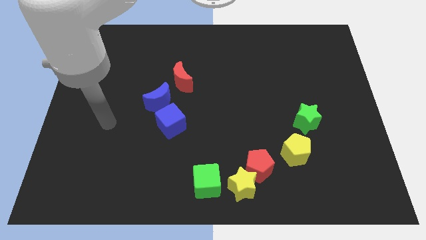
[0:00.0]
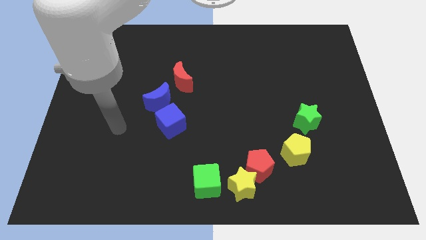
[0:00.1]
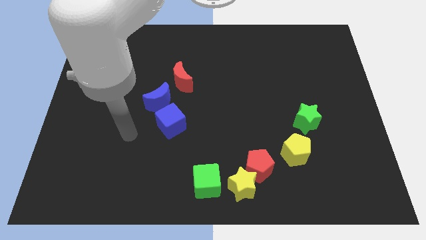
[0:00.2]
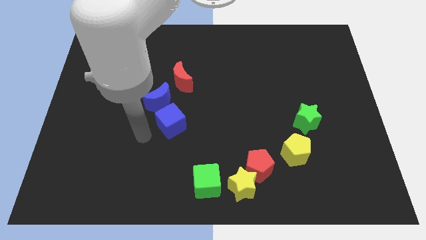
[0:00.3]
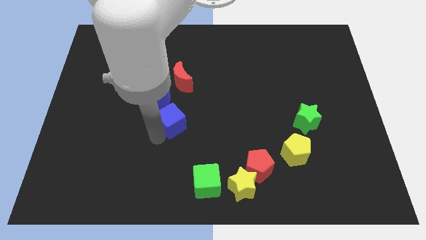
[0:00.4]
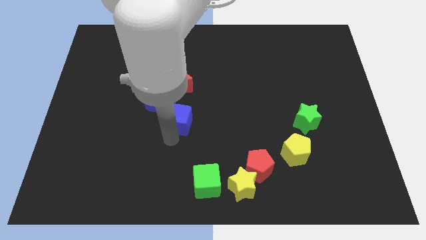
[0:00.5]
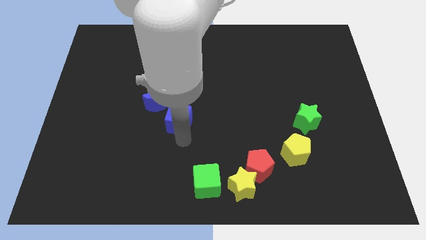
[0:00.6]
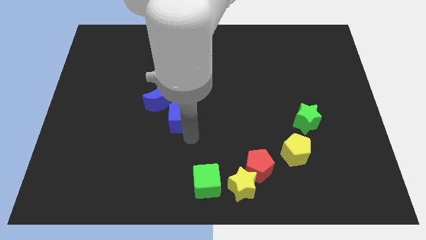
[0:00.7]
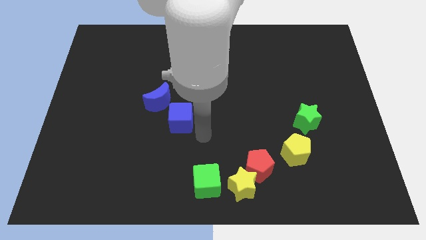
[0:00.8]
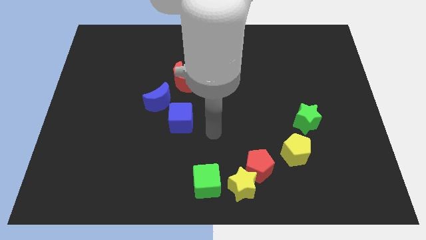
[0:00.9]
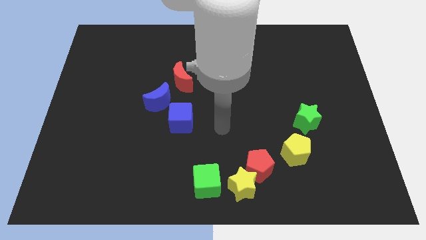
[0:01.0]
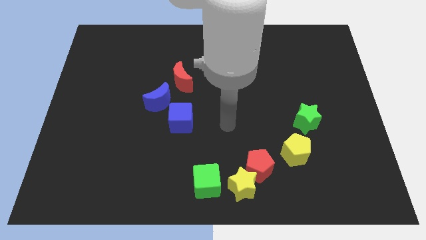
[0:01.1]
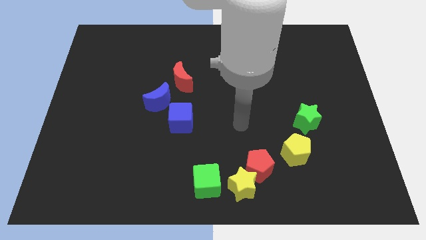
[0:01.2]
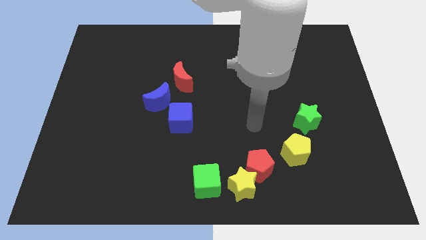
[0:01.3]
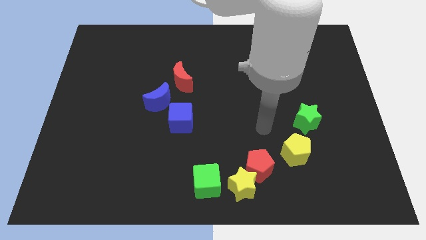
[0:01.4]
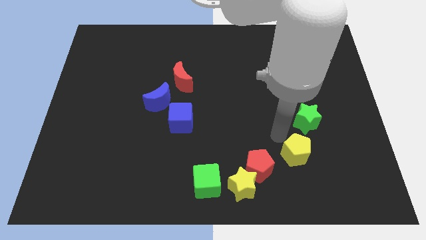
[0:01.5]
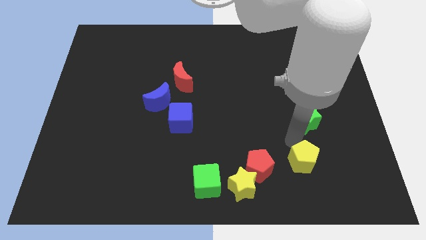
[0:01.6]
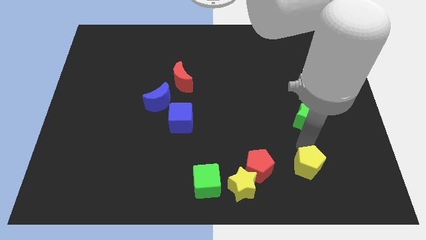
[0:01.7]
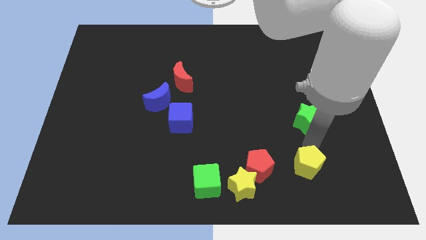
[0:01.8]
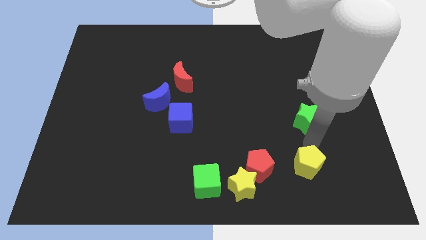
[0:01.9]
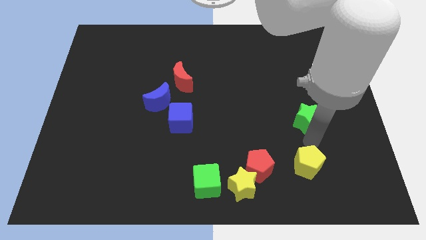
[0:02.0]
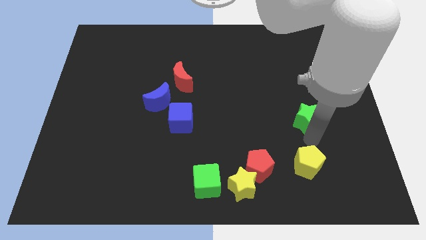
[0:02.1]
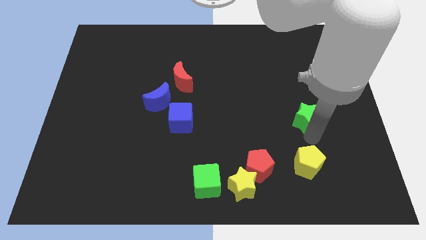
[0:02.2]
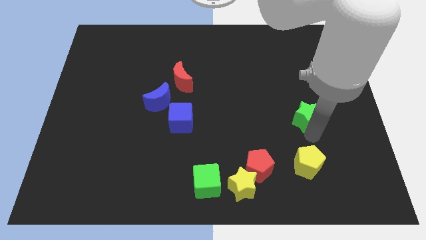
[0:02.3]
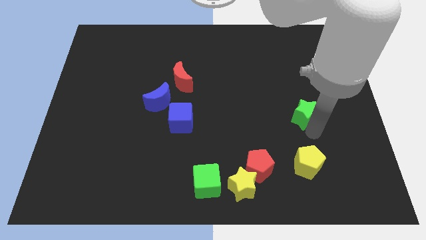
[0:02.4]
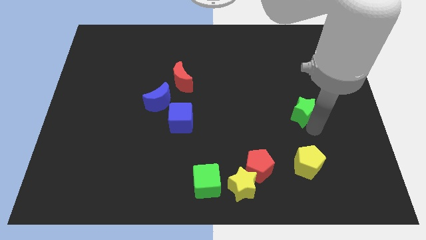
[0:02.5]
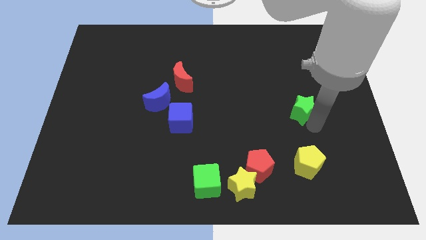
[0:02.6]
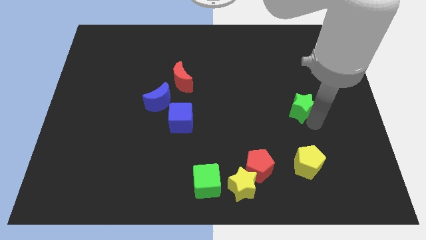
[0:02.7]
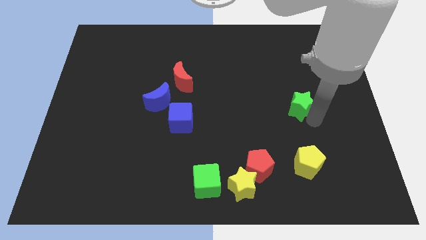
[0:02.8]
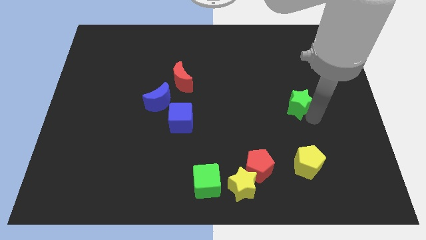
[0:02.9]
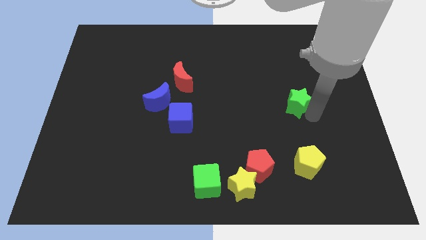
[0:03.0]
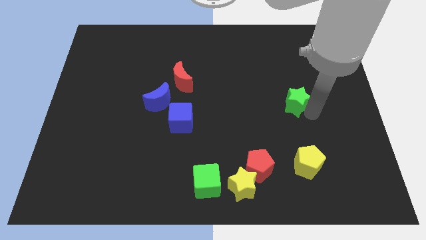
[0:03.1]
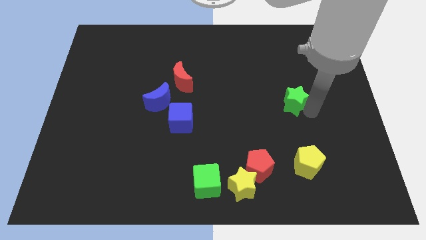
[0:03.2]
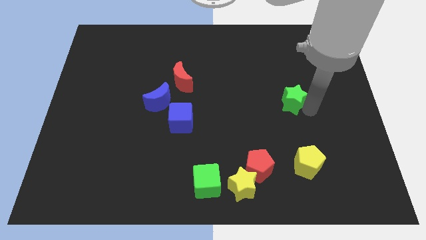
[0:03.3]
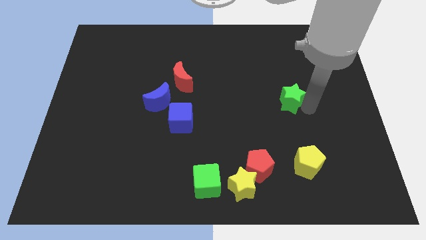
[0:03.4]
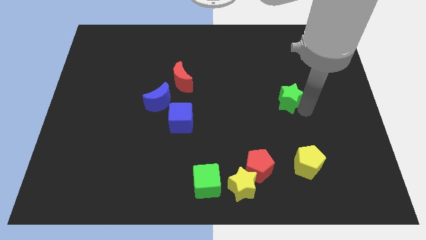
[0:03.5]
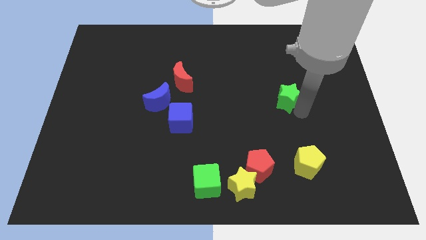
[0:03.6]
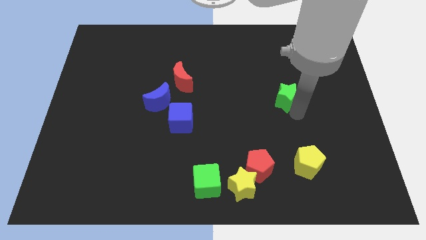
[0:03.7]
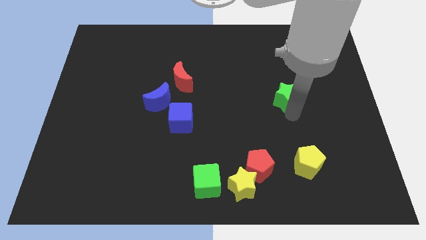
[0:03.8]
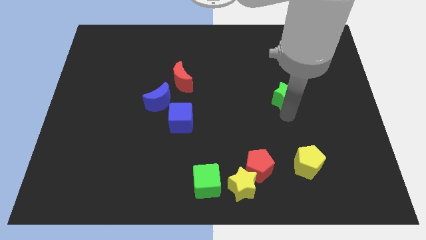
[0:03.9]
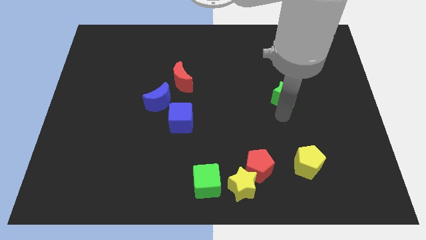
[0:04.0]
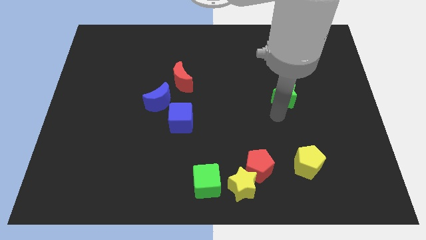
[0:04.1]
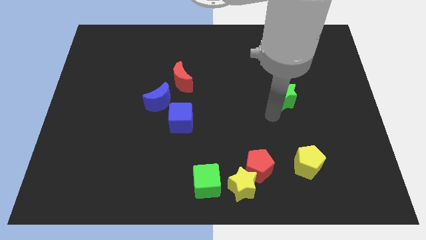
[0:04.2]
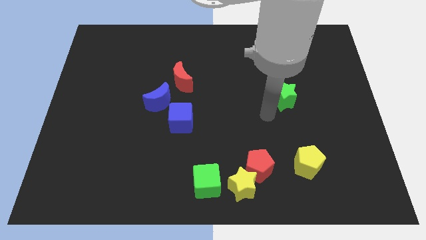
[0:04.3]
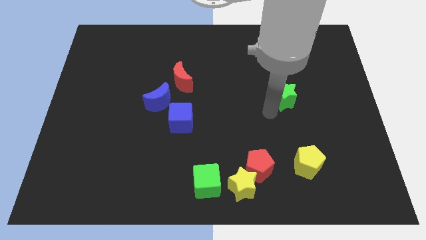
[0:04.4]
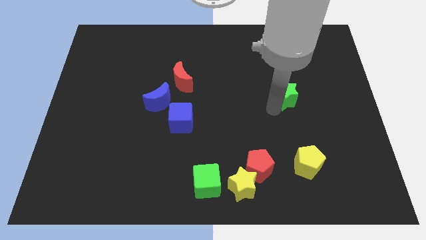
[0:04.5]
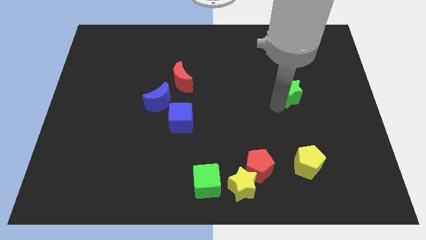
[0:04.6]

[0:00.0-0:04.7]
slightly push the green star up

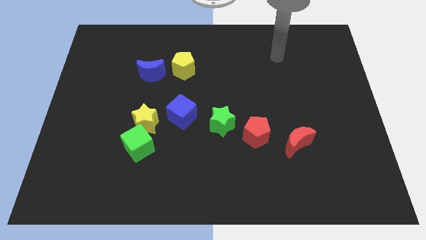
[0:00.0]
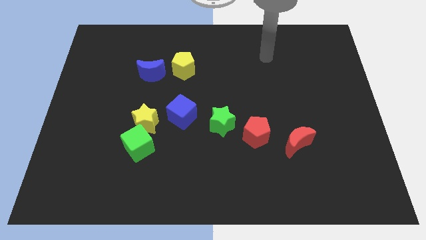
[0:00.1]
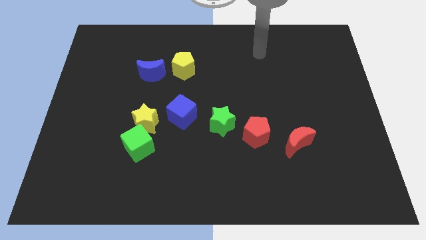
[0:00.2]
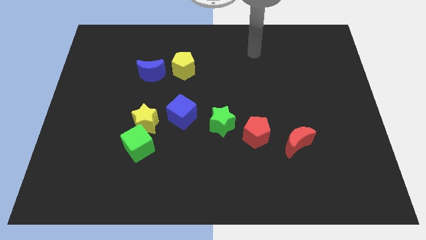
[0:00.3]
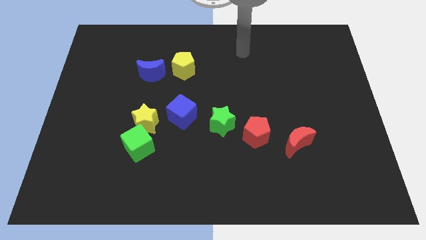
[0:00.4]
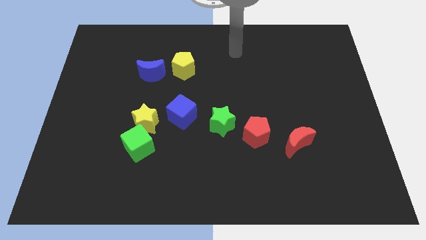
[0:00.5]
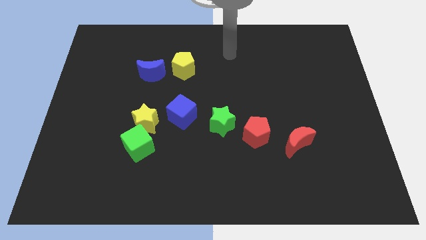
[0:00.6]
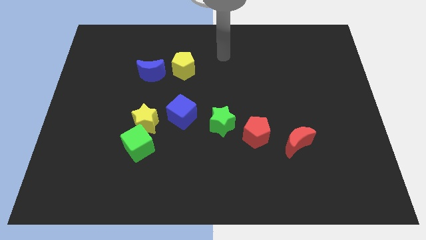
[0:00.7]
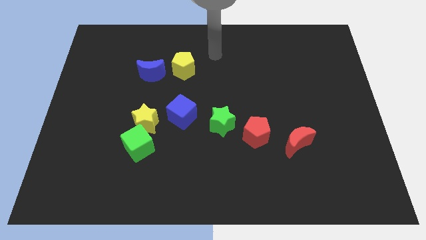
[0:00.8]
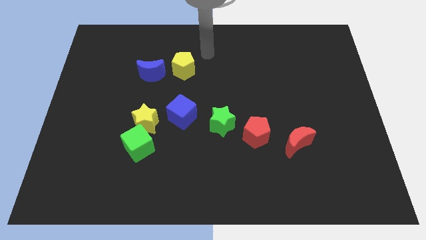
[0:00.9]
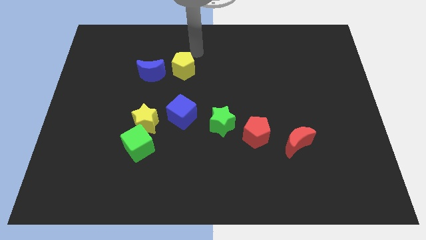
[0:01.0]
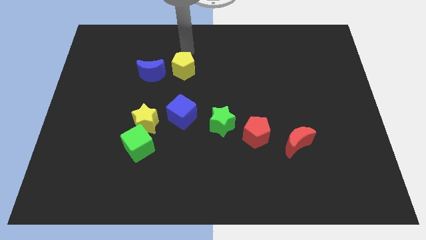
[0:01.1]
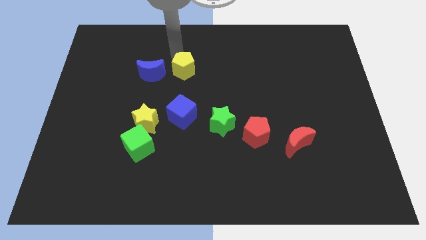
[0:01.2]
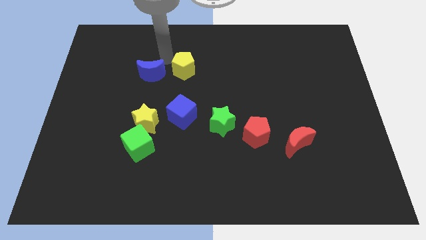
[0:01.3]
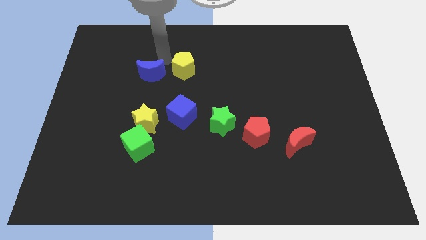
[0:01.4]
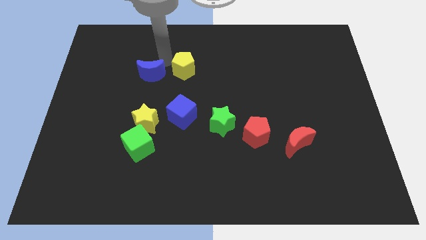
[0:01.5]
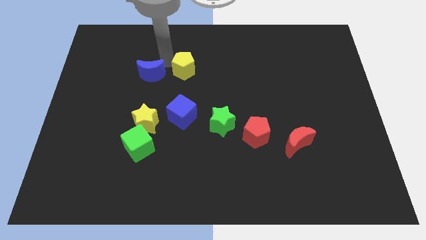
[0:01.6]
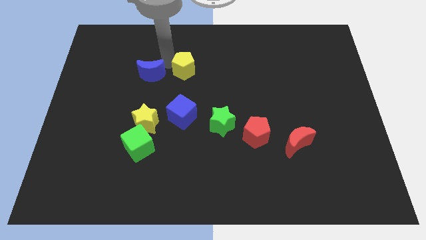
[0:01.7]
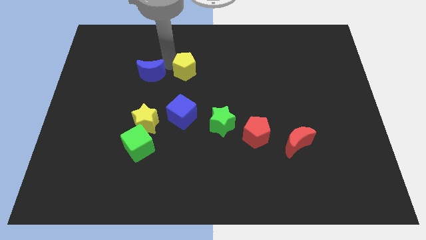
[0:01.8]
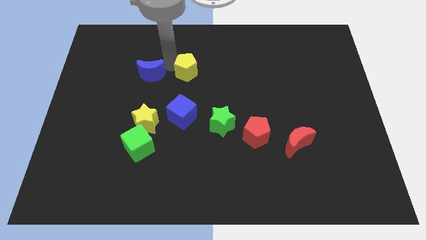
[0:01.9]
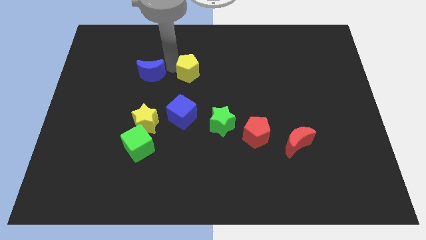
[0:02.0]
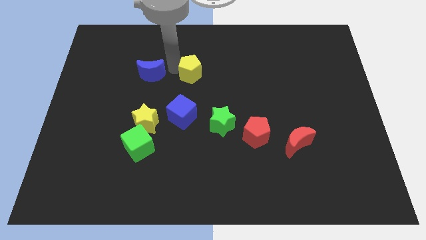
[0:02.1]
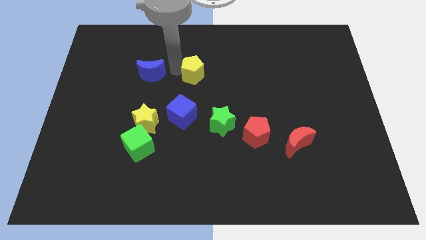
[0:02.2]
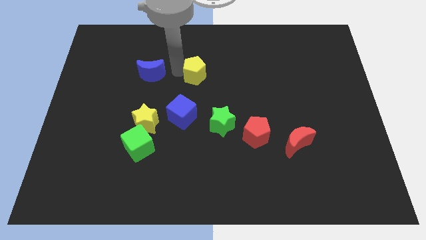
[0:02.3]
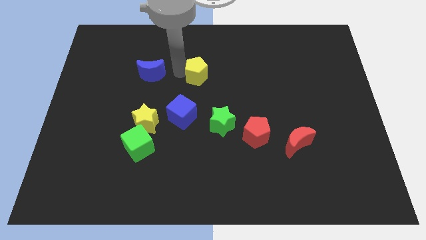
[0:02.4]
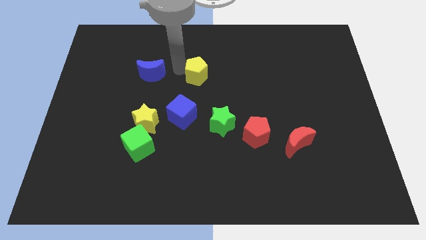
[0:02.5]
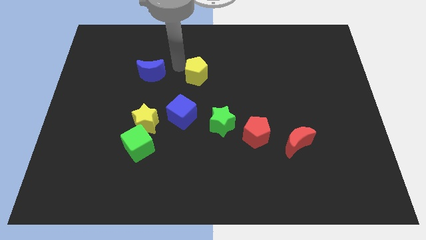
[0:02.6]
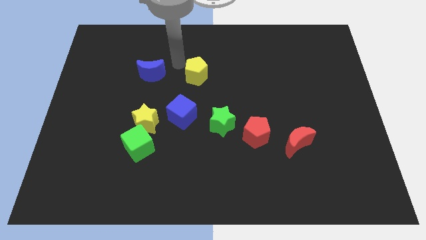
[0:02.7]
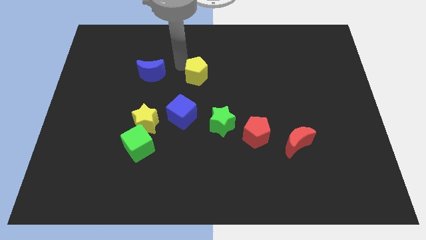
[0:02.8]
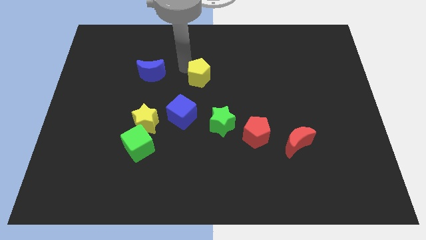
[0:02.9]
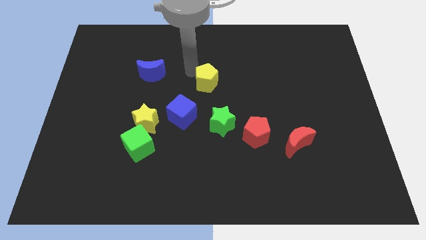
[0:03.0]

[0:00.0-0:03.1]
slide the yellow pentagon downwards and then right a little

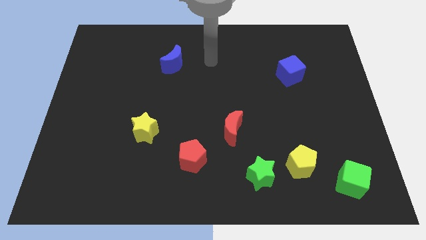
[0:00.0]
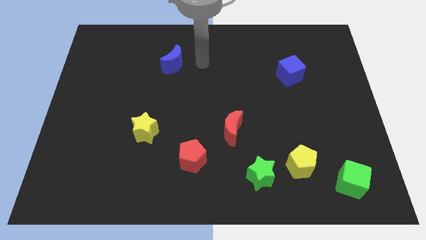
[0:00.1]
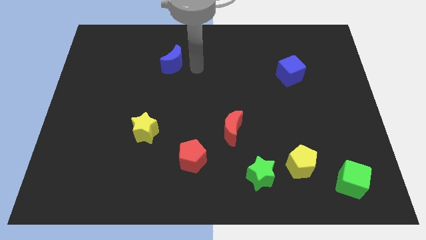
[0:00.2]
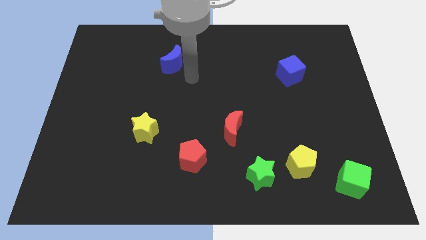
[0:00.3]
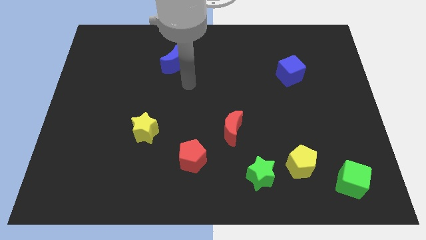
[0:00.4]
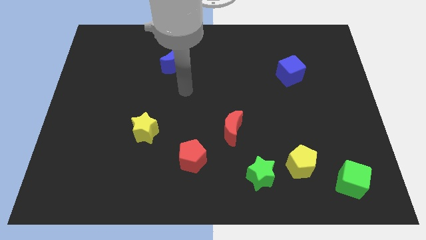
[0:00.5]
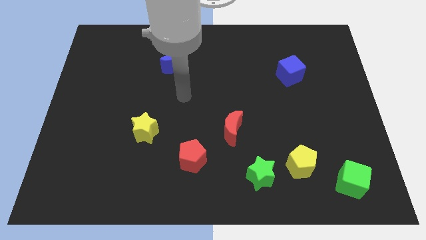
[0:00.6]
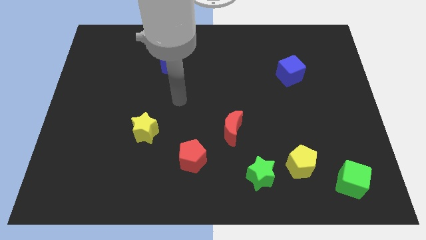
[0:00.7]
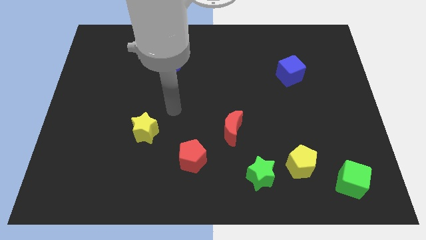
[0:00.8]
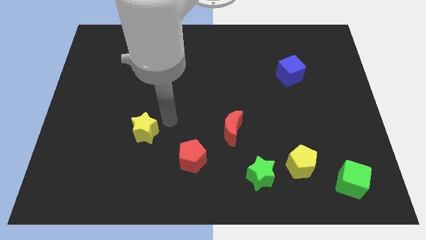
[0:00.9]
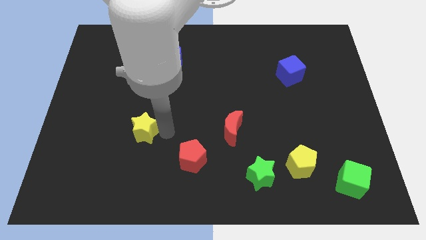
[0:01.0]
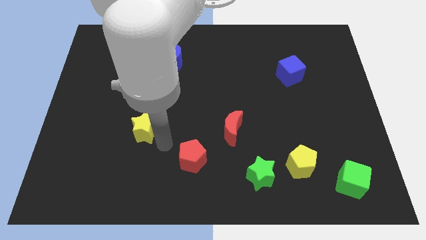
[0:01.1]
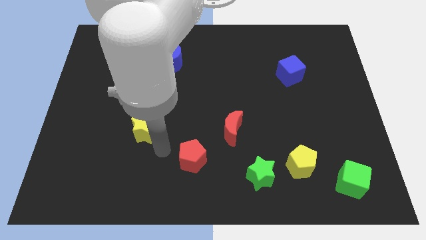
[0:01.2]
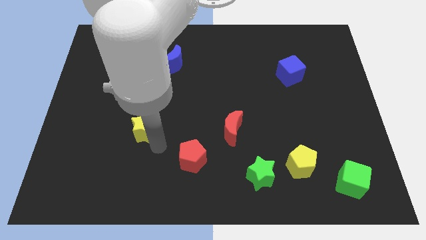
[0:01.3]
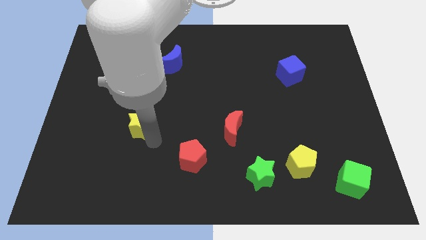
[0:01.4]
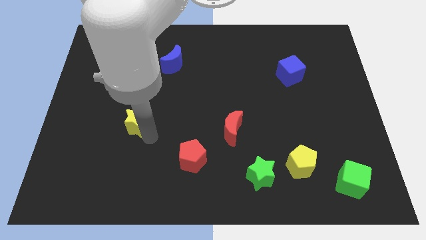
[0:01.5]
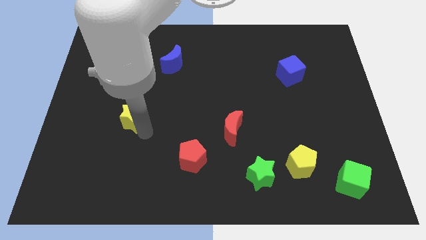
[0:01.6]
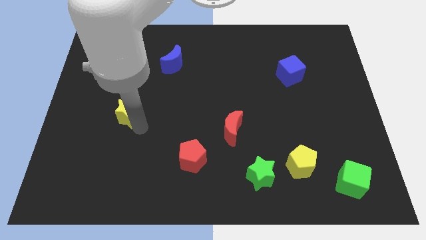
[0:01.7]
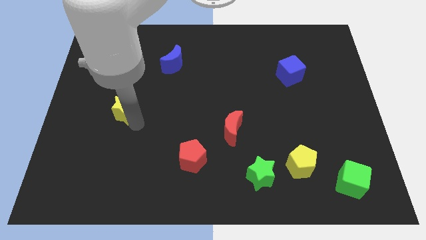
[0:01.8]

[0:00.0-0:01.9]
slightly move the yellow star up and to the left diagonally
